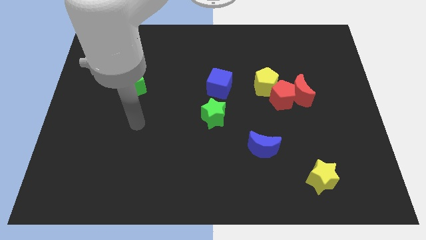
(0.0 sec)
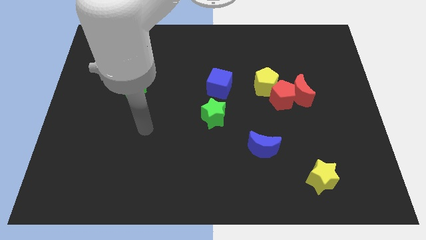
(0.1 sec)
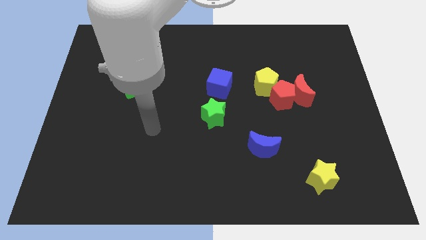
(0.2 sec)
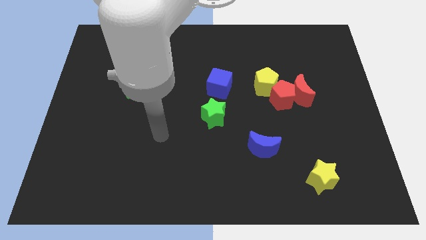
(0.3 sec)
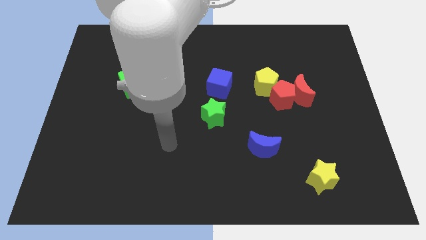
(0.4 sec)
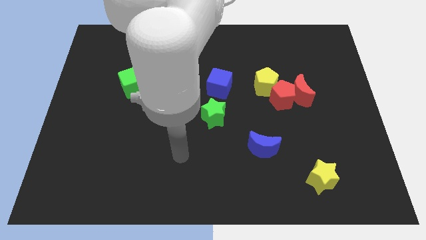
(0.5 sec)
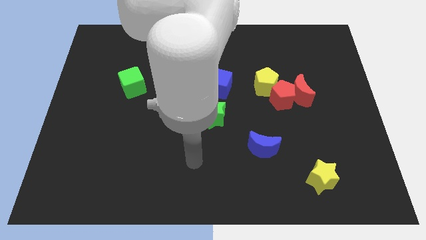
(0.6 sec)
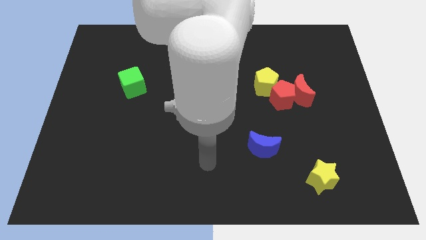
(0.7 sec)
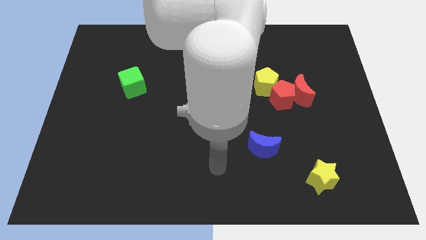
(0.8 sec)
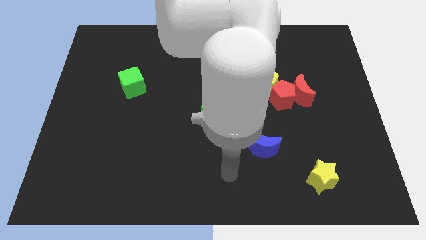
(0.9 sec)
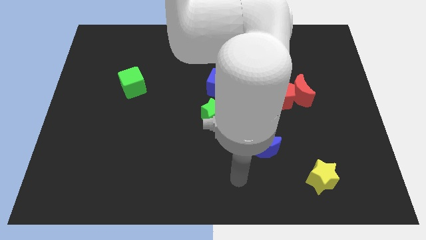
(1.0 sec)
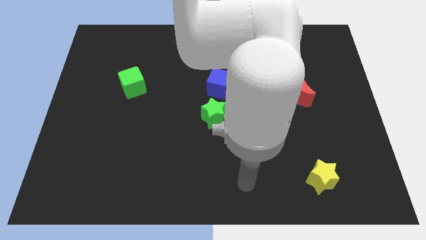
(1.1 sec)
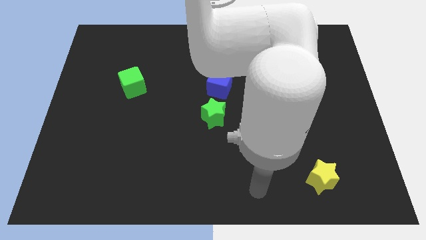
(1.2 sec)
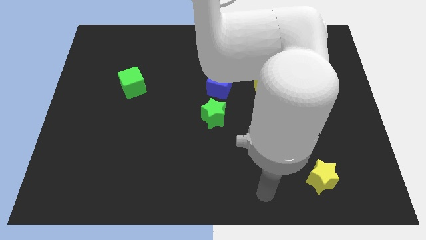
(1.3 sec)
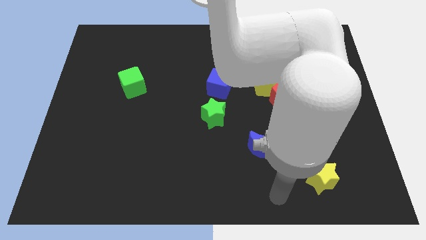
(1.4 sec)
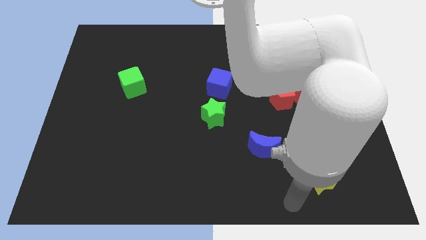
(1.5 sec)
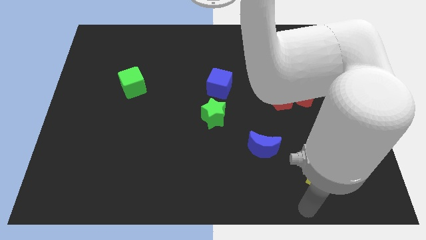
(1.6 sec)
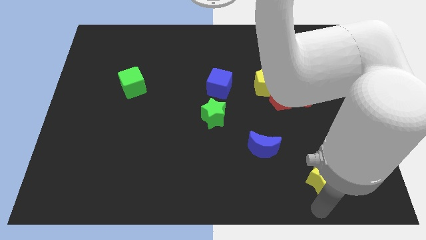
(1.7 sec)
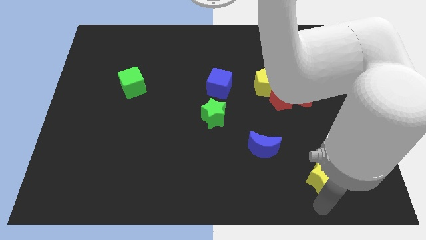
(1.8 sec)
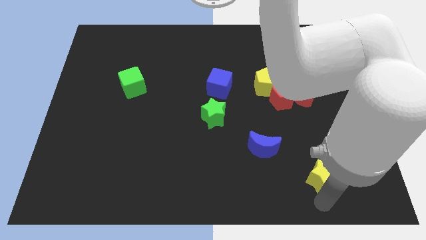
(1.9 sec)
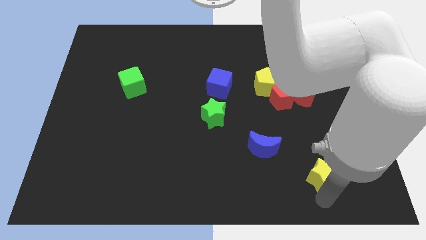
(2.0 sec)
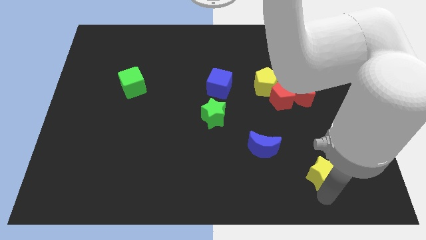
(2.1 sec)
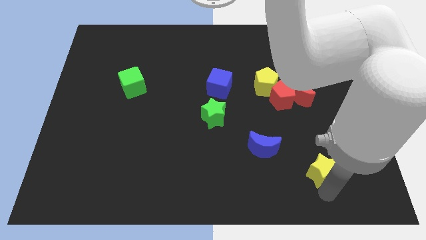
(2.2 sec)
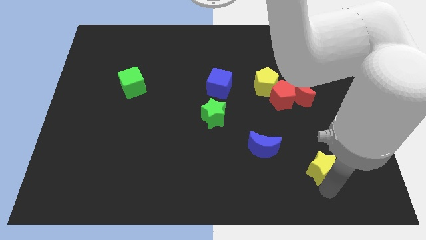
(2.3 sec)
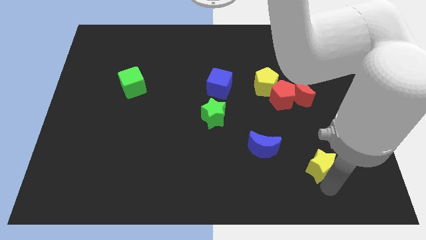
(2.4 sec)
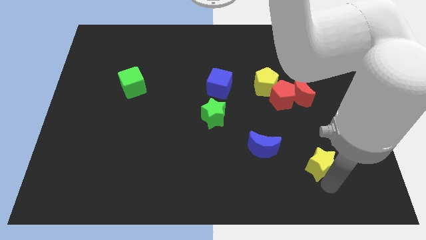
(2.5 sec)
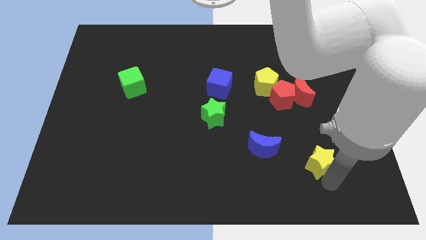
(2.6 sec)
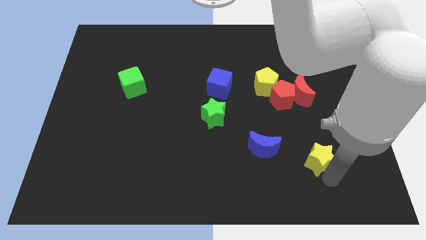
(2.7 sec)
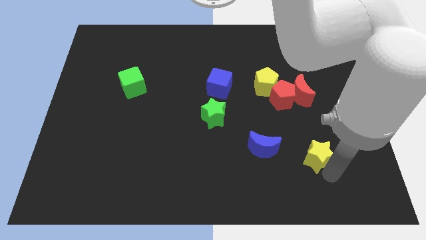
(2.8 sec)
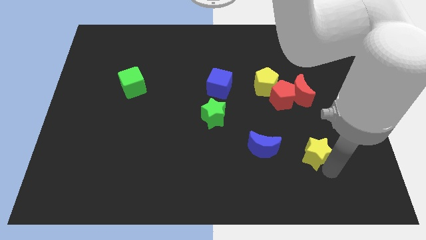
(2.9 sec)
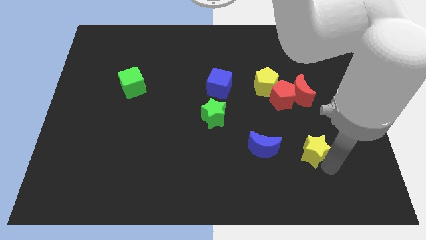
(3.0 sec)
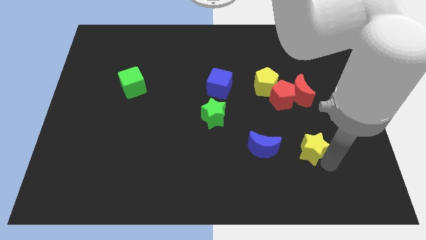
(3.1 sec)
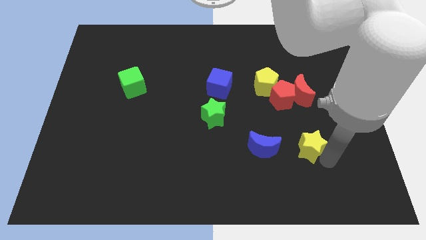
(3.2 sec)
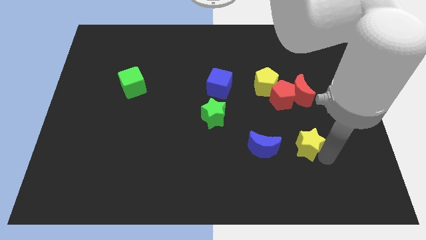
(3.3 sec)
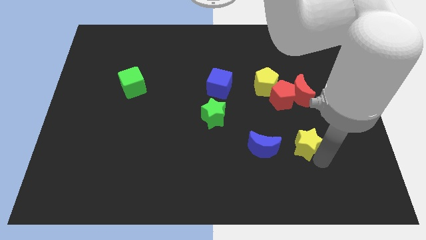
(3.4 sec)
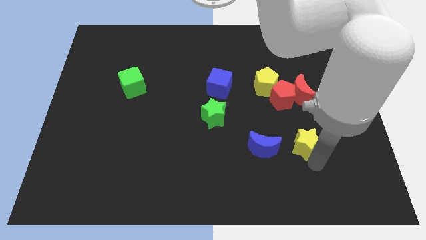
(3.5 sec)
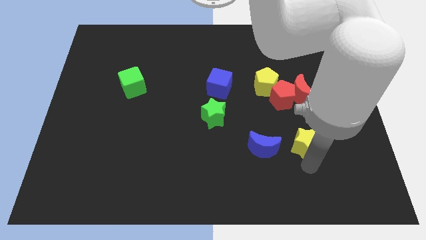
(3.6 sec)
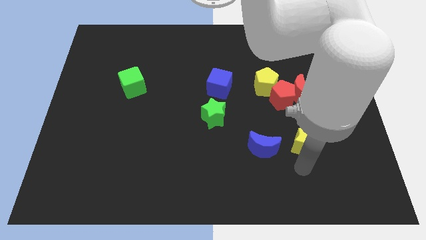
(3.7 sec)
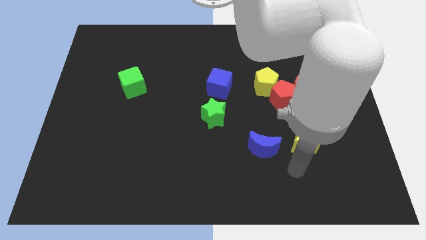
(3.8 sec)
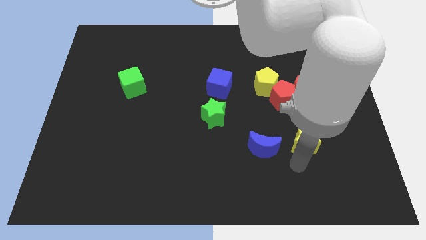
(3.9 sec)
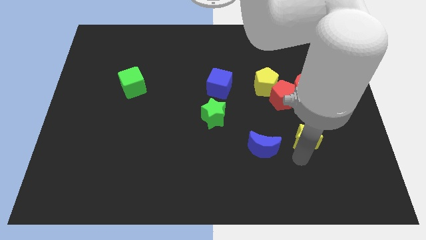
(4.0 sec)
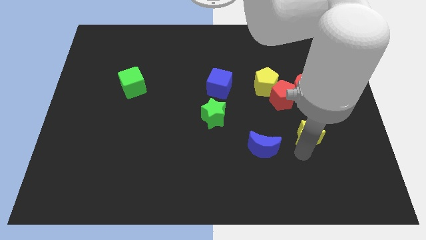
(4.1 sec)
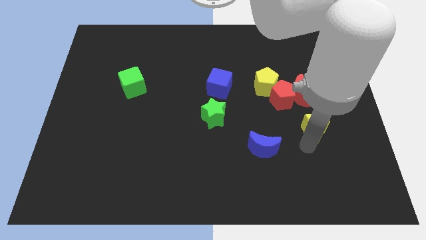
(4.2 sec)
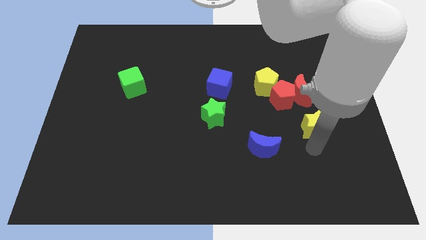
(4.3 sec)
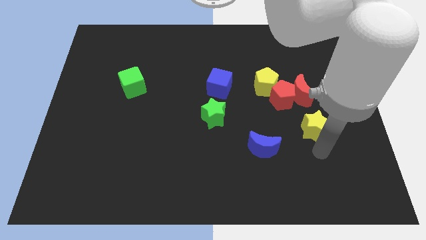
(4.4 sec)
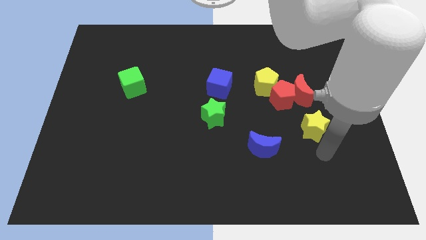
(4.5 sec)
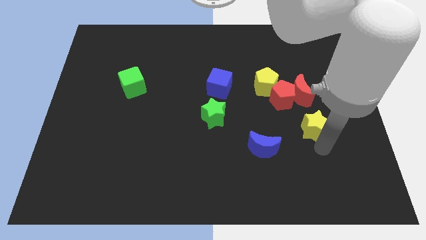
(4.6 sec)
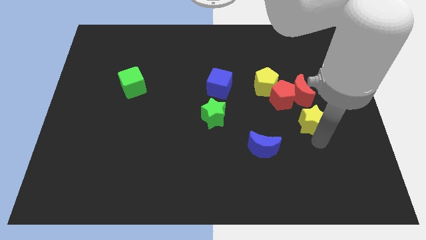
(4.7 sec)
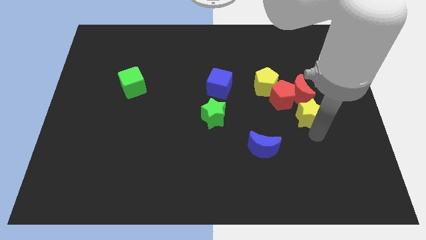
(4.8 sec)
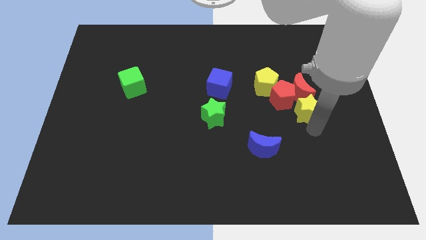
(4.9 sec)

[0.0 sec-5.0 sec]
push the yellow star towards the red moon

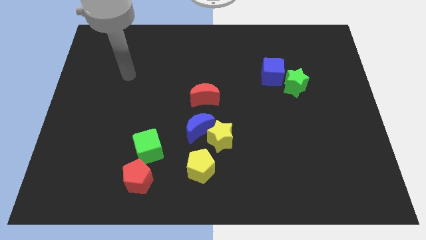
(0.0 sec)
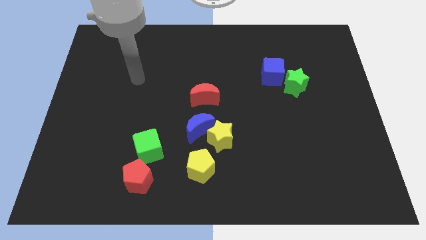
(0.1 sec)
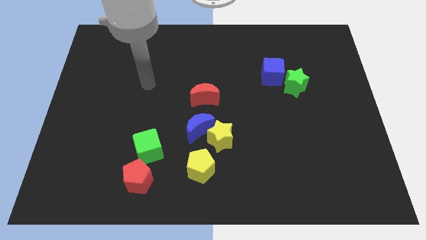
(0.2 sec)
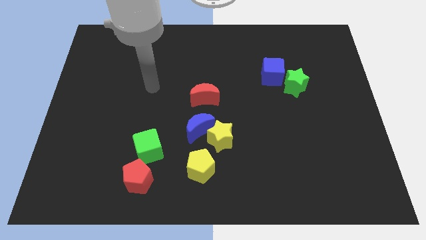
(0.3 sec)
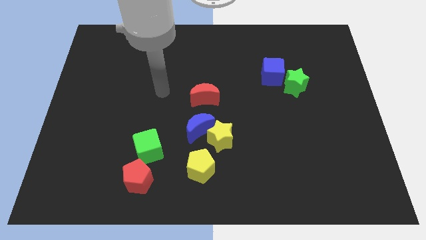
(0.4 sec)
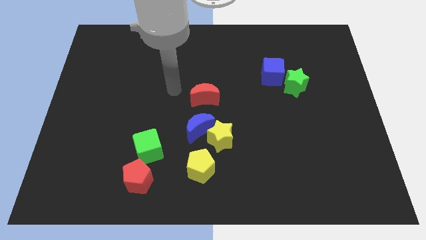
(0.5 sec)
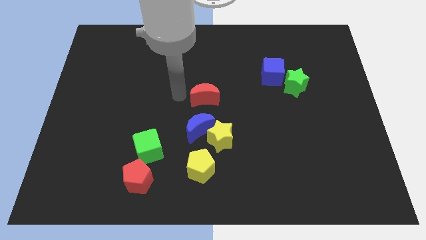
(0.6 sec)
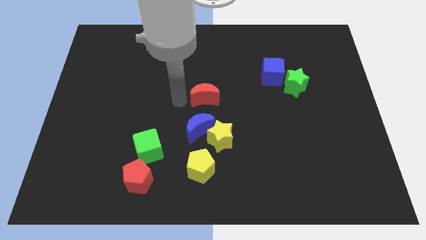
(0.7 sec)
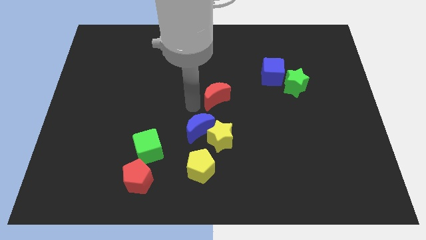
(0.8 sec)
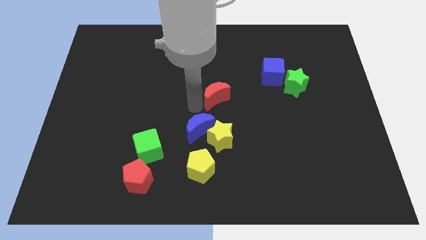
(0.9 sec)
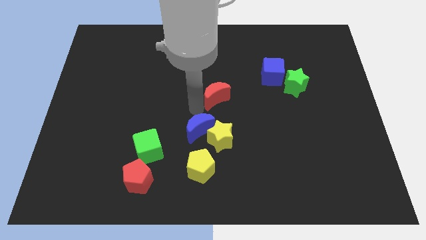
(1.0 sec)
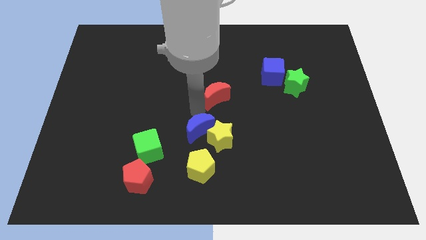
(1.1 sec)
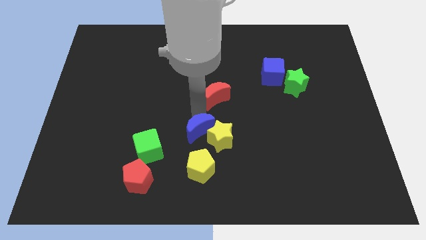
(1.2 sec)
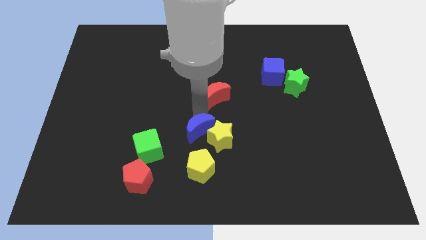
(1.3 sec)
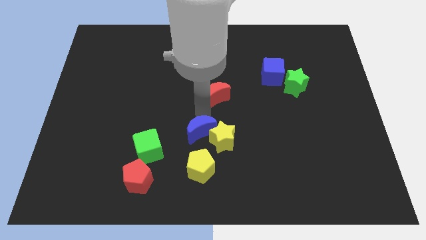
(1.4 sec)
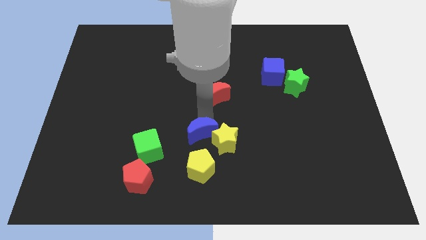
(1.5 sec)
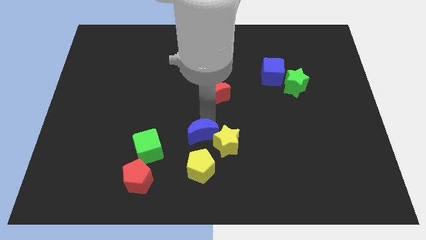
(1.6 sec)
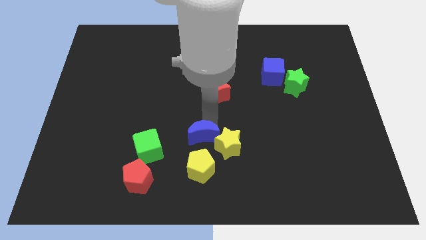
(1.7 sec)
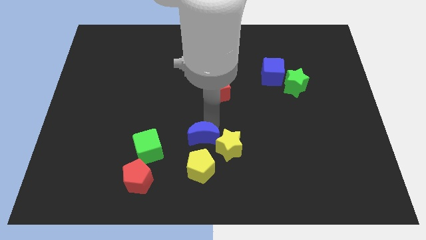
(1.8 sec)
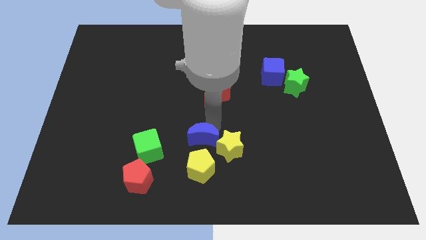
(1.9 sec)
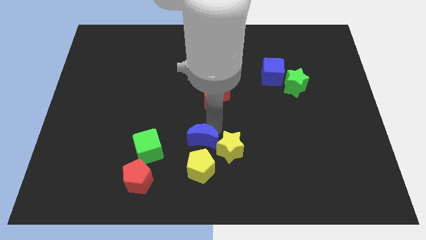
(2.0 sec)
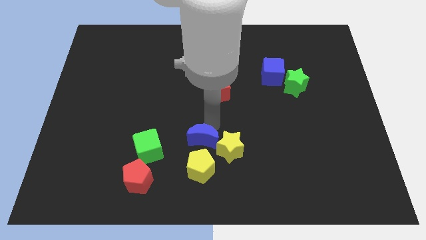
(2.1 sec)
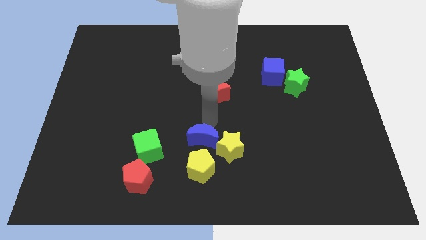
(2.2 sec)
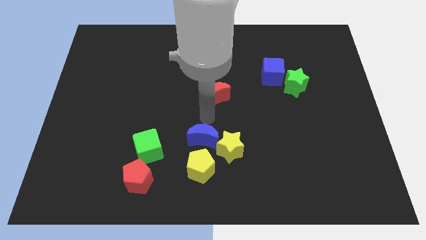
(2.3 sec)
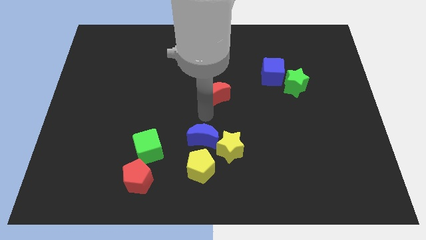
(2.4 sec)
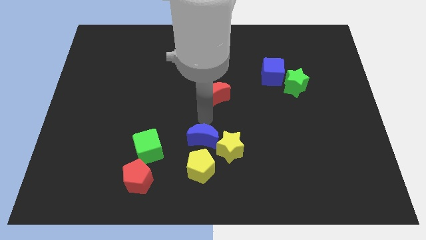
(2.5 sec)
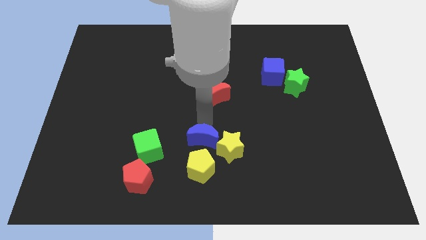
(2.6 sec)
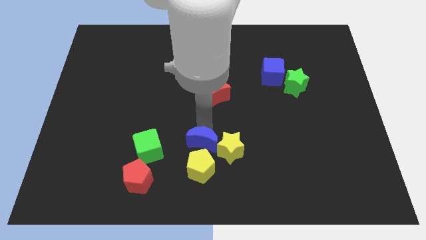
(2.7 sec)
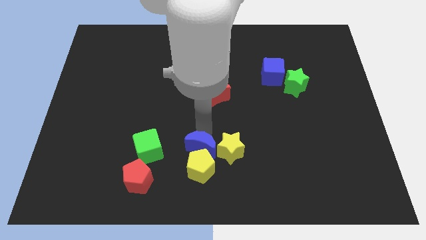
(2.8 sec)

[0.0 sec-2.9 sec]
slide the blue moon close to the yellow pentagon
